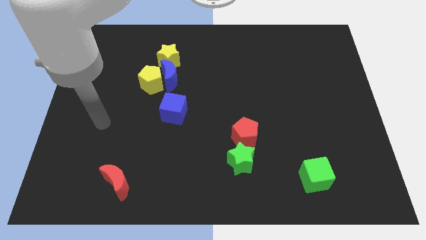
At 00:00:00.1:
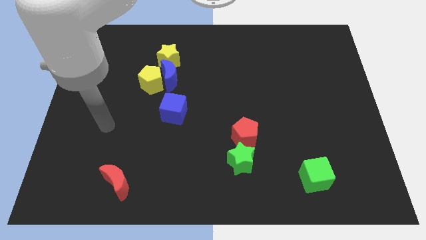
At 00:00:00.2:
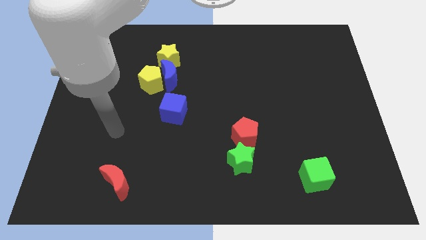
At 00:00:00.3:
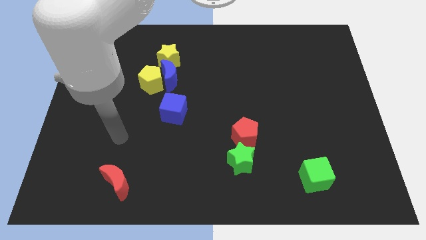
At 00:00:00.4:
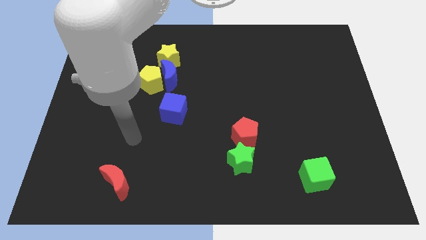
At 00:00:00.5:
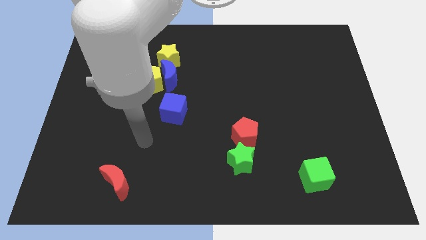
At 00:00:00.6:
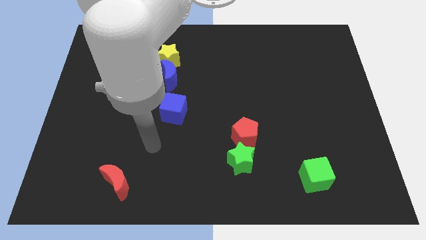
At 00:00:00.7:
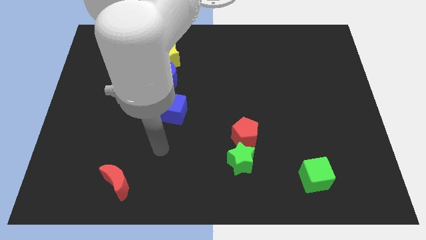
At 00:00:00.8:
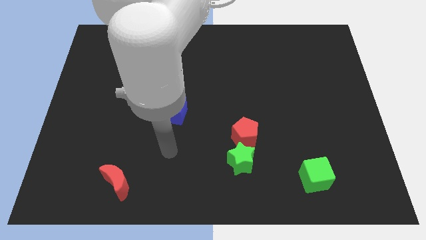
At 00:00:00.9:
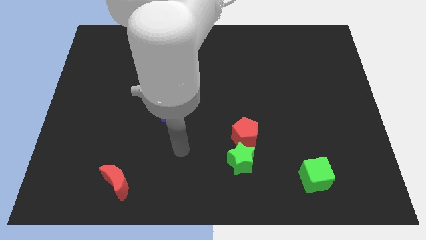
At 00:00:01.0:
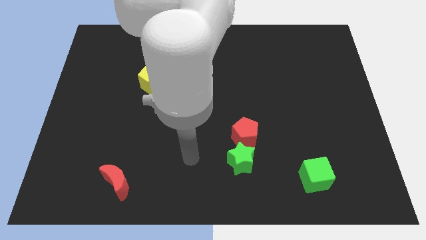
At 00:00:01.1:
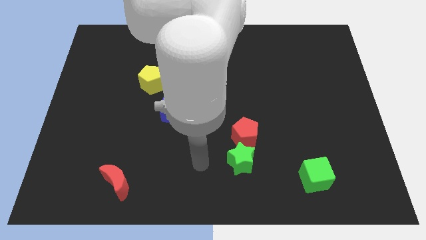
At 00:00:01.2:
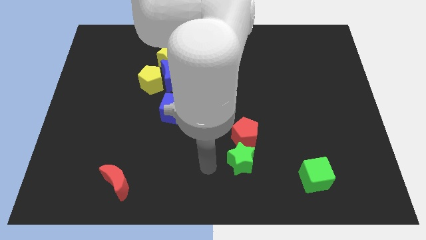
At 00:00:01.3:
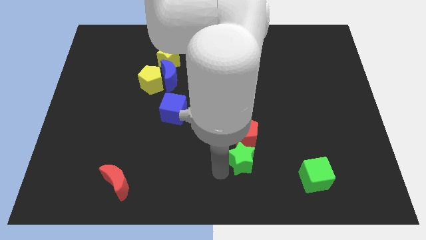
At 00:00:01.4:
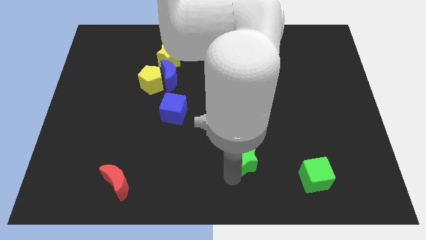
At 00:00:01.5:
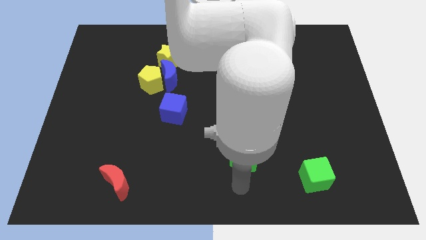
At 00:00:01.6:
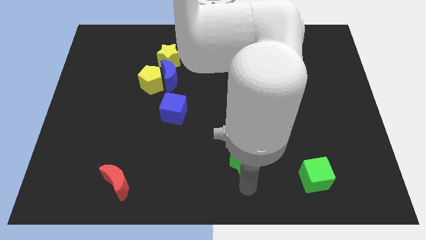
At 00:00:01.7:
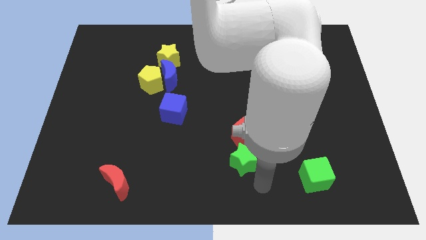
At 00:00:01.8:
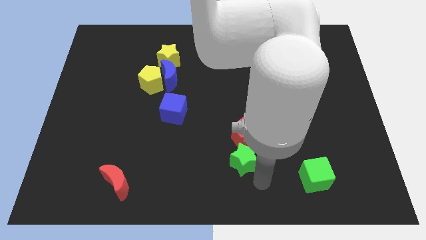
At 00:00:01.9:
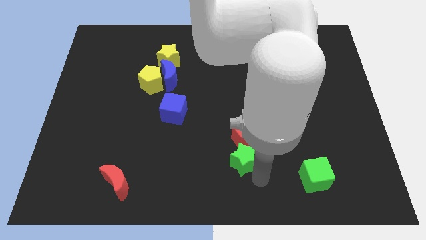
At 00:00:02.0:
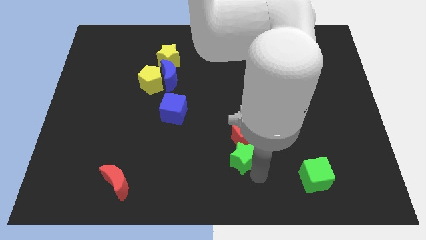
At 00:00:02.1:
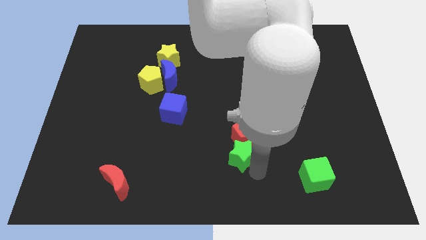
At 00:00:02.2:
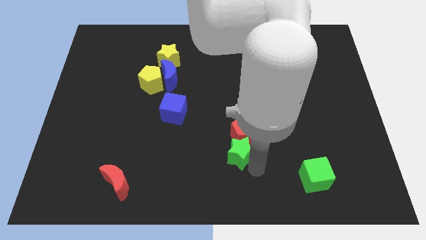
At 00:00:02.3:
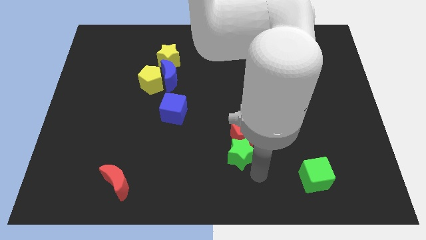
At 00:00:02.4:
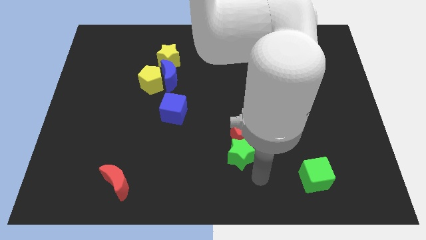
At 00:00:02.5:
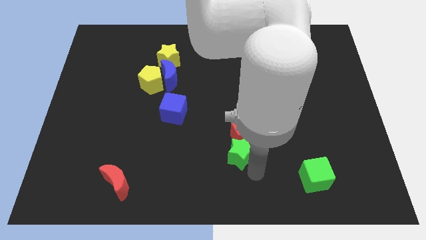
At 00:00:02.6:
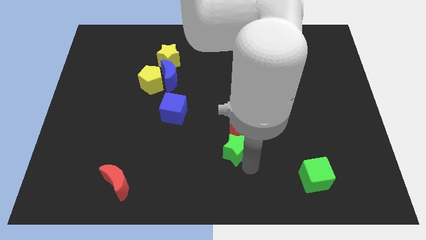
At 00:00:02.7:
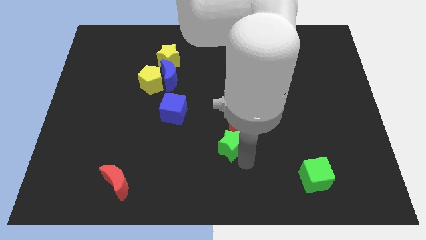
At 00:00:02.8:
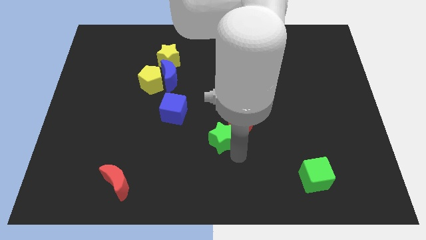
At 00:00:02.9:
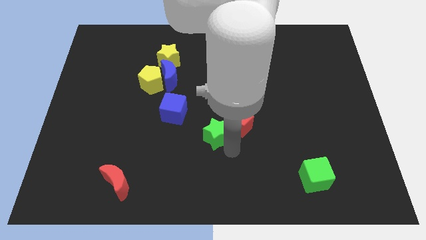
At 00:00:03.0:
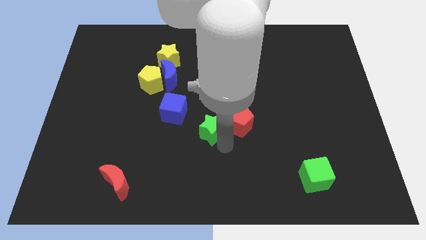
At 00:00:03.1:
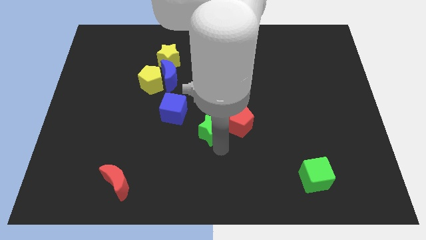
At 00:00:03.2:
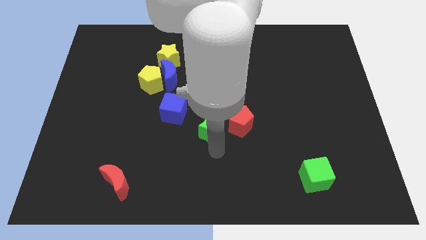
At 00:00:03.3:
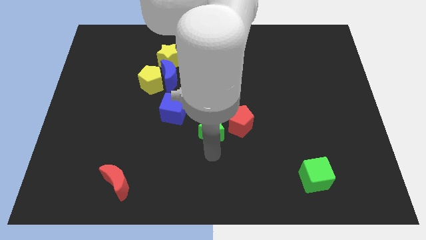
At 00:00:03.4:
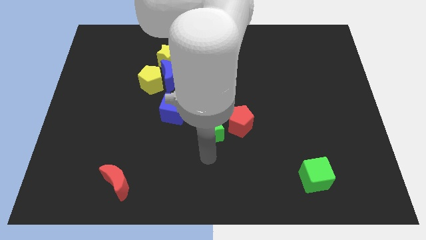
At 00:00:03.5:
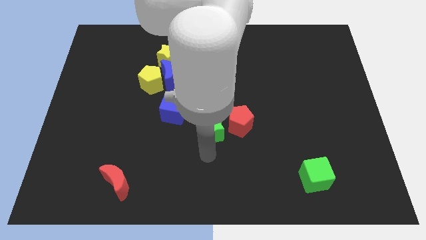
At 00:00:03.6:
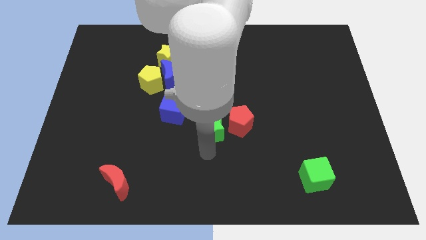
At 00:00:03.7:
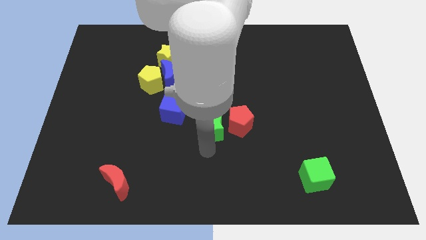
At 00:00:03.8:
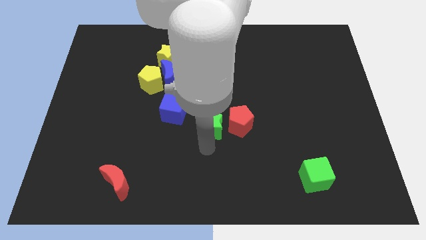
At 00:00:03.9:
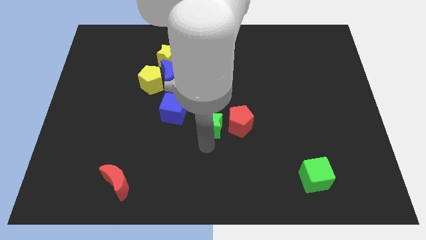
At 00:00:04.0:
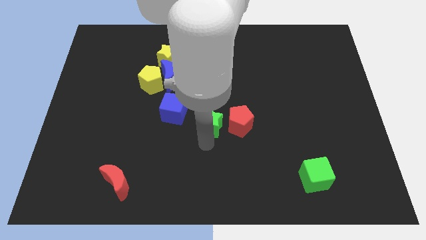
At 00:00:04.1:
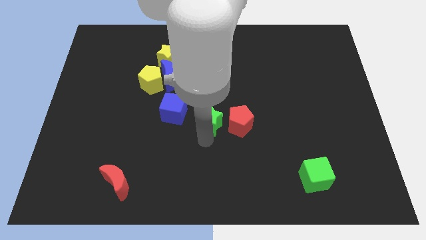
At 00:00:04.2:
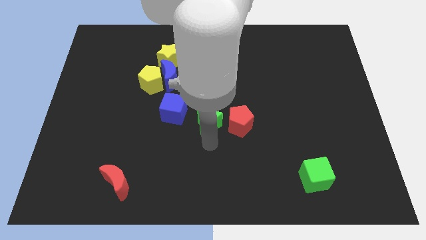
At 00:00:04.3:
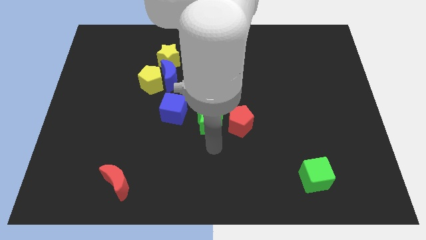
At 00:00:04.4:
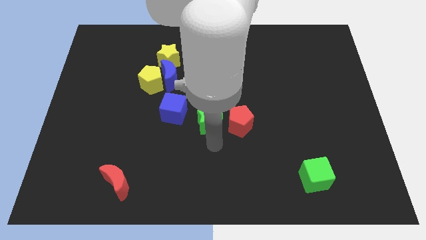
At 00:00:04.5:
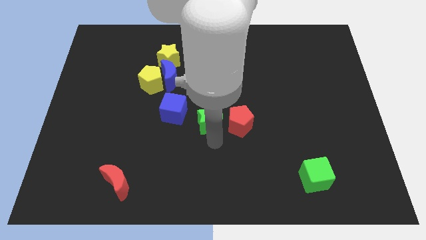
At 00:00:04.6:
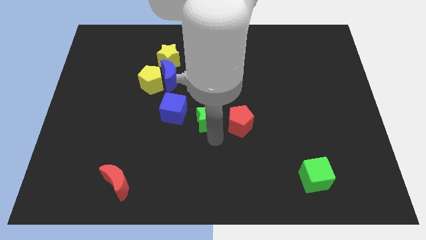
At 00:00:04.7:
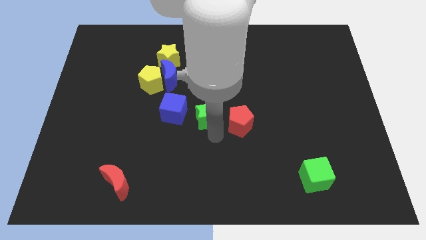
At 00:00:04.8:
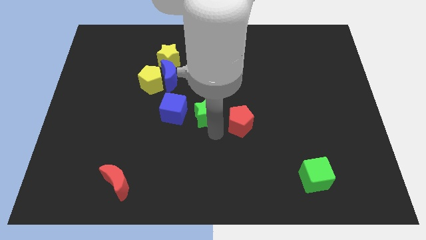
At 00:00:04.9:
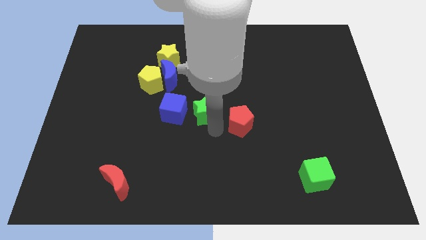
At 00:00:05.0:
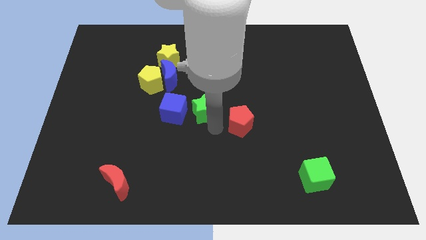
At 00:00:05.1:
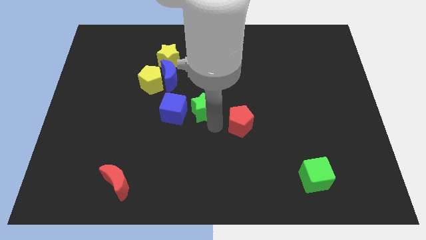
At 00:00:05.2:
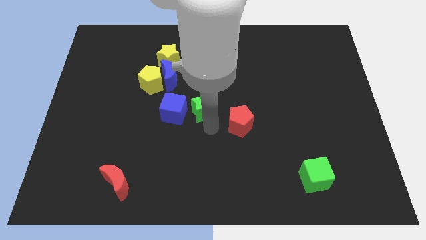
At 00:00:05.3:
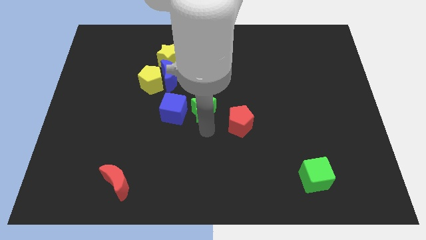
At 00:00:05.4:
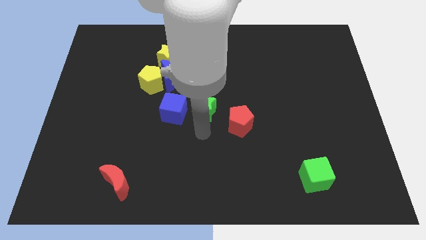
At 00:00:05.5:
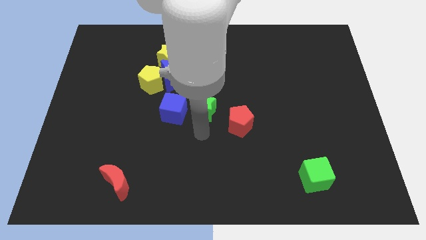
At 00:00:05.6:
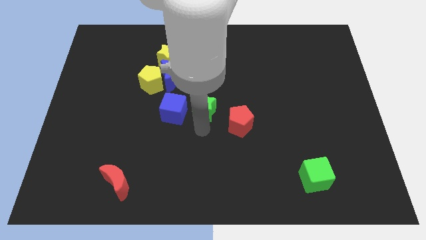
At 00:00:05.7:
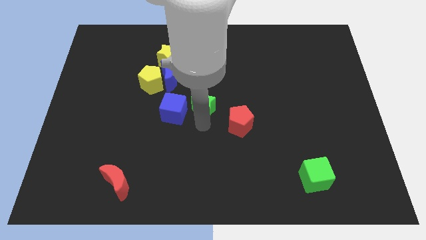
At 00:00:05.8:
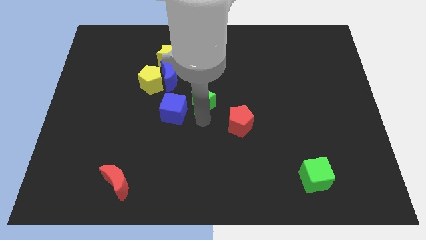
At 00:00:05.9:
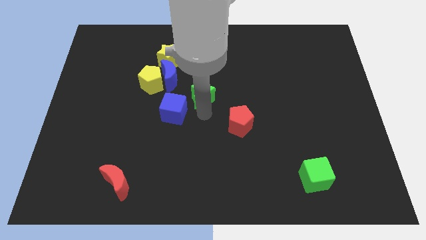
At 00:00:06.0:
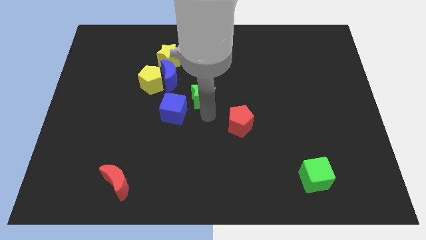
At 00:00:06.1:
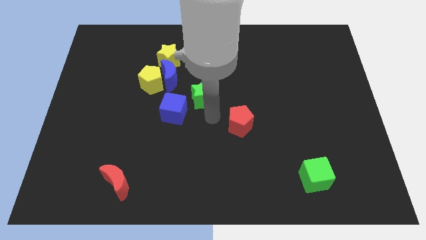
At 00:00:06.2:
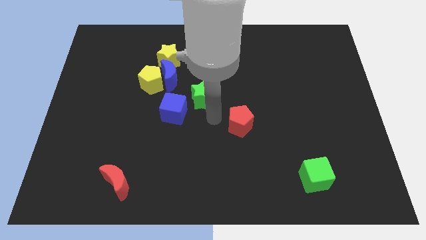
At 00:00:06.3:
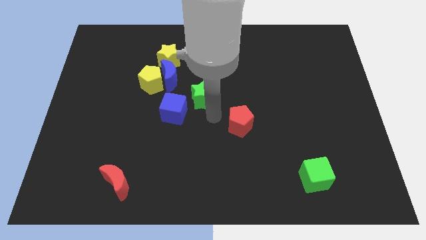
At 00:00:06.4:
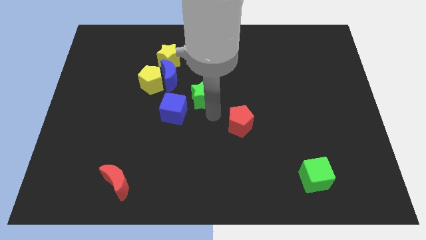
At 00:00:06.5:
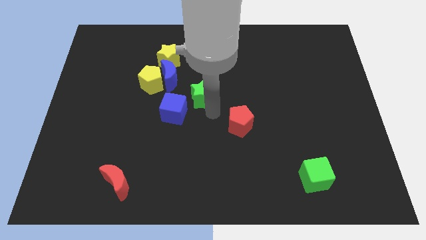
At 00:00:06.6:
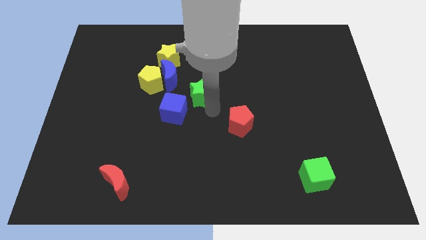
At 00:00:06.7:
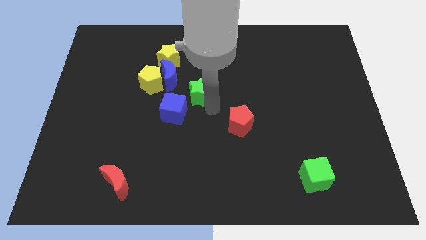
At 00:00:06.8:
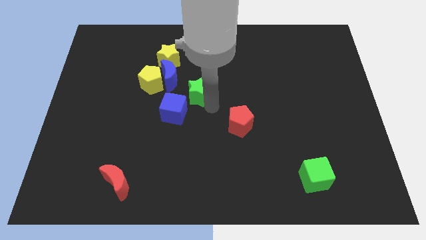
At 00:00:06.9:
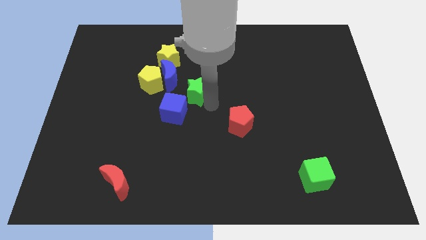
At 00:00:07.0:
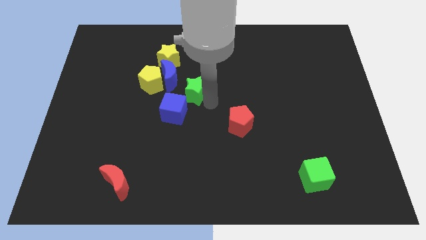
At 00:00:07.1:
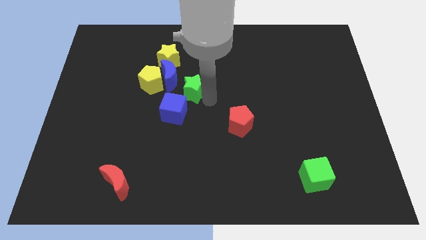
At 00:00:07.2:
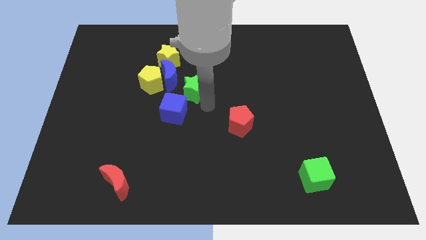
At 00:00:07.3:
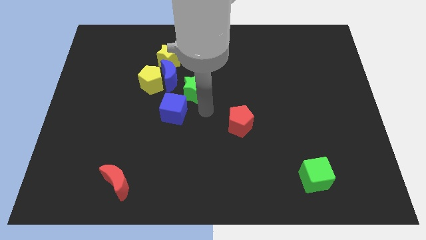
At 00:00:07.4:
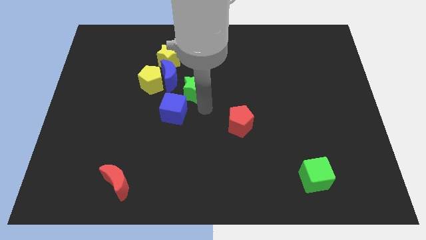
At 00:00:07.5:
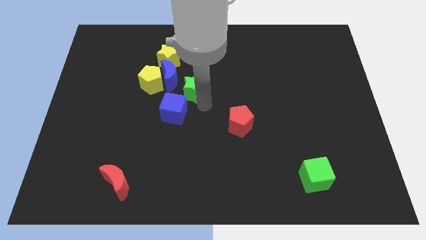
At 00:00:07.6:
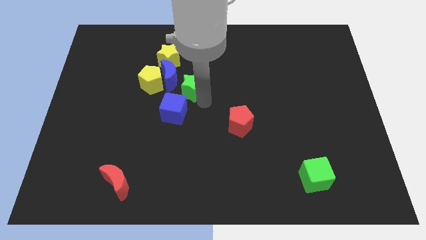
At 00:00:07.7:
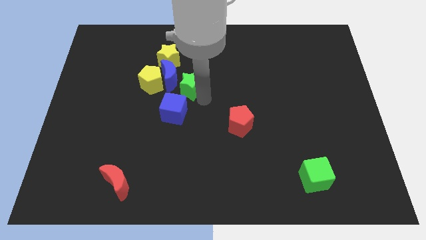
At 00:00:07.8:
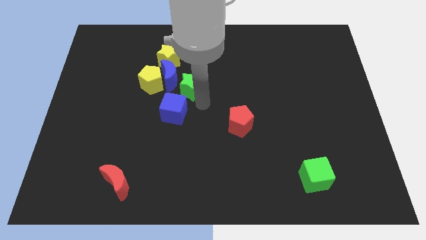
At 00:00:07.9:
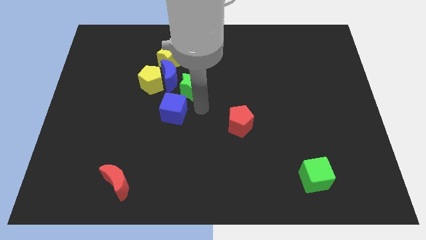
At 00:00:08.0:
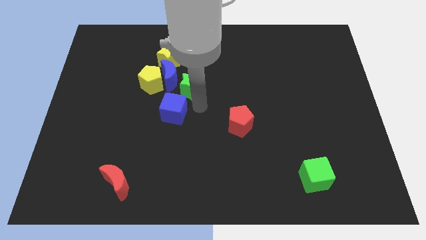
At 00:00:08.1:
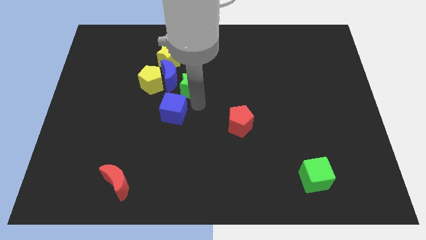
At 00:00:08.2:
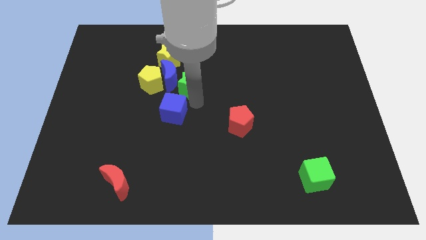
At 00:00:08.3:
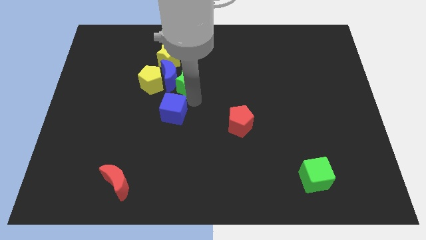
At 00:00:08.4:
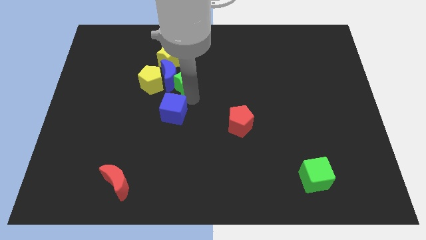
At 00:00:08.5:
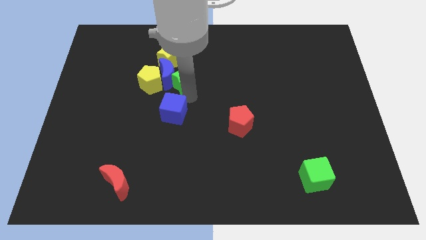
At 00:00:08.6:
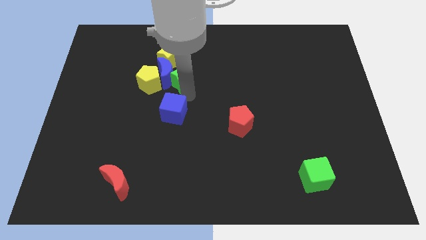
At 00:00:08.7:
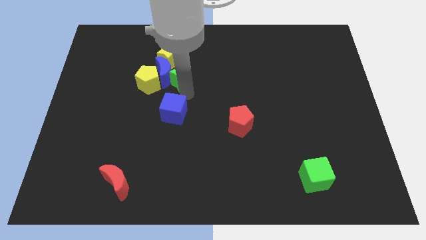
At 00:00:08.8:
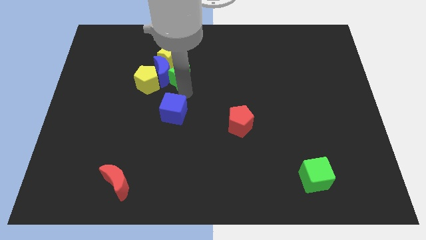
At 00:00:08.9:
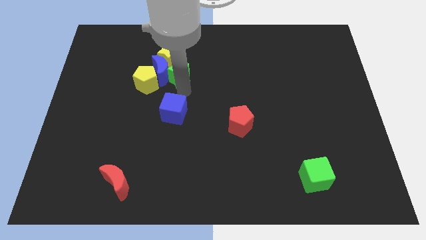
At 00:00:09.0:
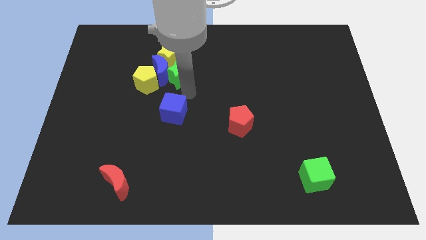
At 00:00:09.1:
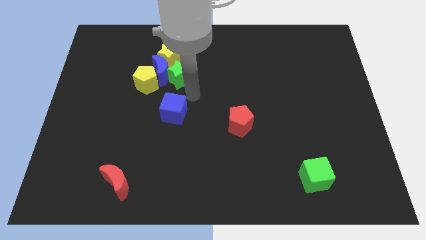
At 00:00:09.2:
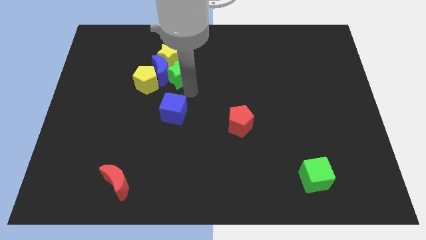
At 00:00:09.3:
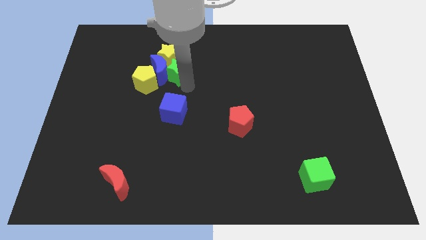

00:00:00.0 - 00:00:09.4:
put the green star towards the yellow star
